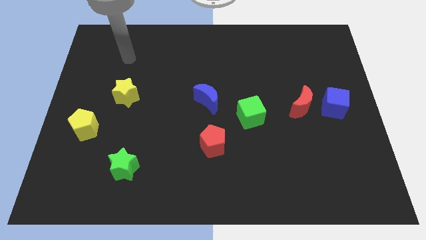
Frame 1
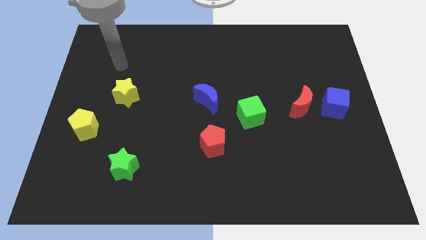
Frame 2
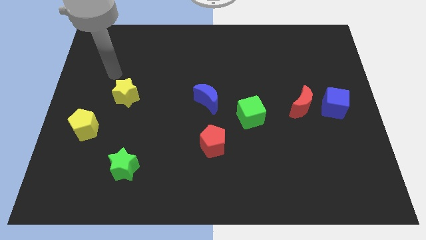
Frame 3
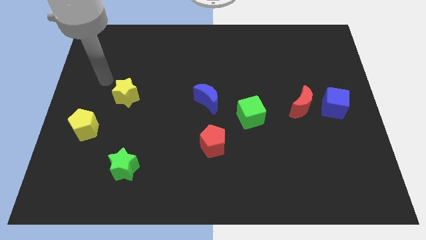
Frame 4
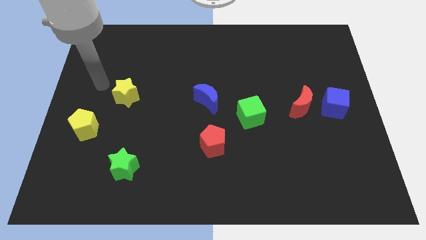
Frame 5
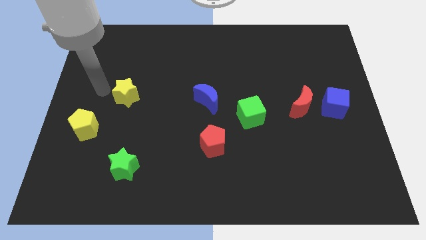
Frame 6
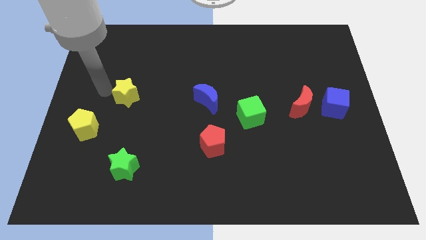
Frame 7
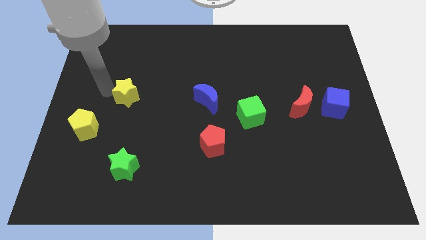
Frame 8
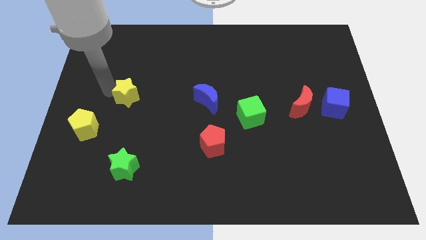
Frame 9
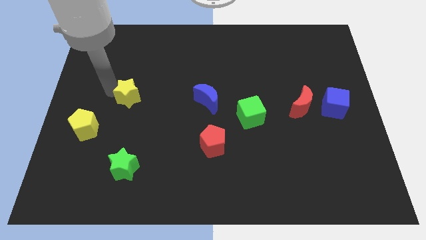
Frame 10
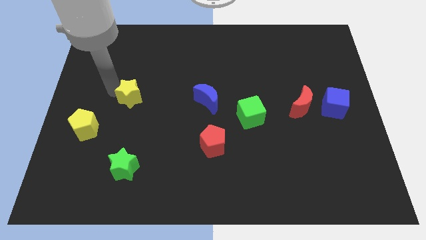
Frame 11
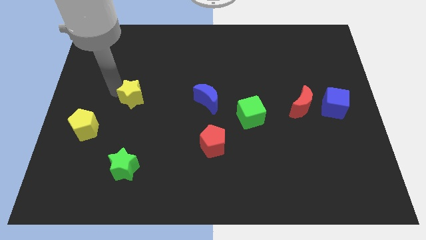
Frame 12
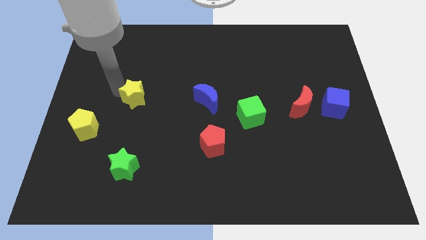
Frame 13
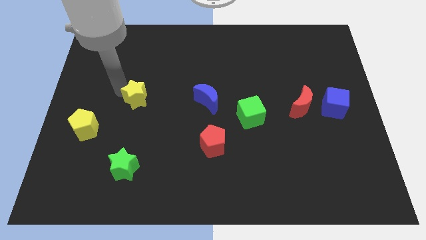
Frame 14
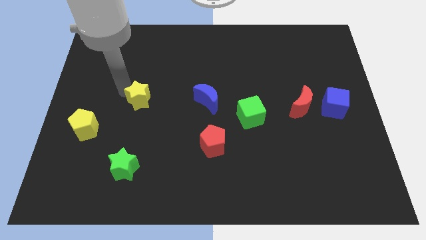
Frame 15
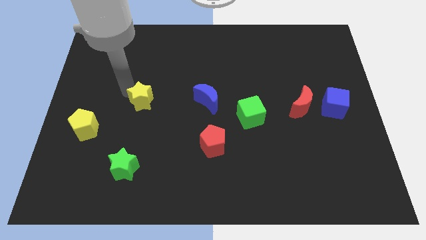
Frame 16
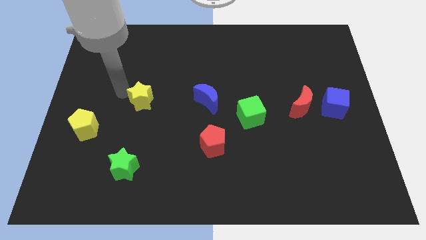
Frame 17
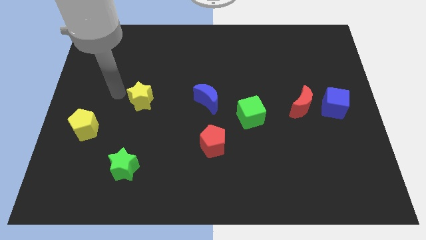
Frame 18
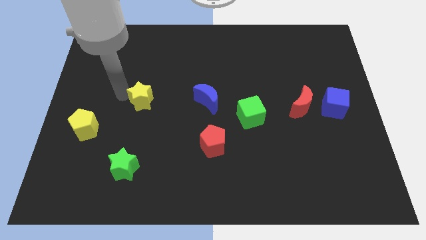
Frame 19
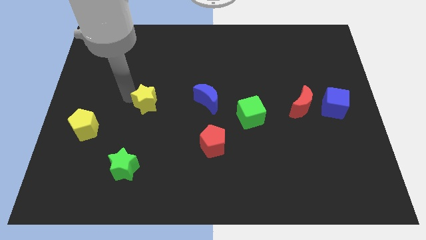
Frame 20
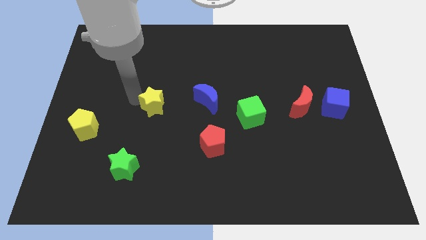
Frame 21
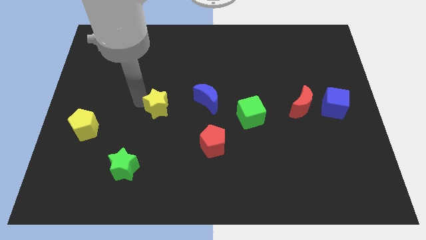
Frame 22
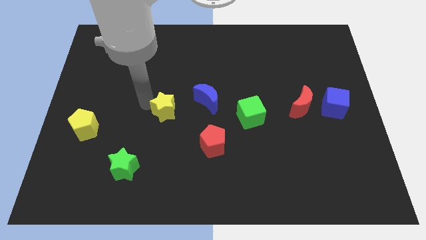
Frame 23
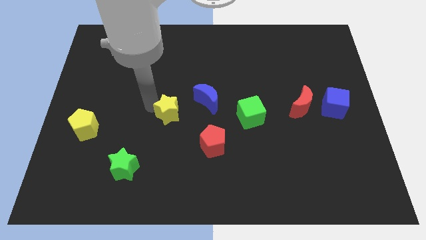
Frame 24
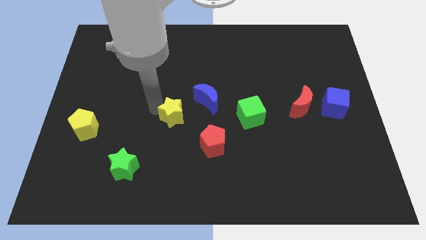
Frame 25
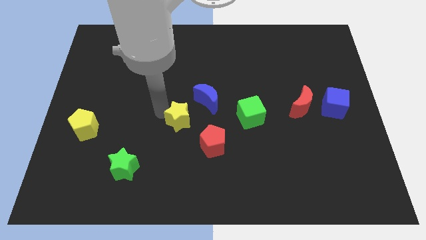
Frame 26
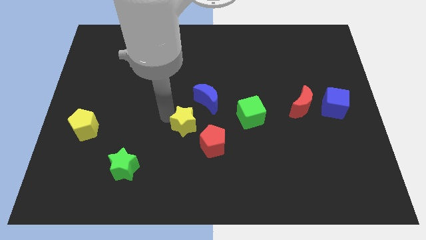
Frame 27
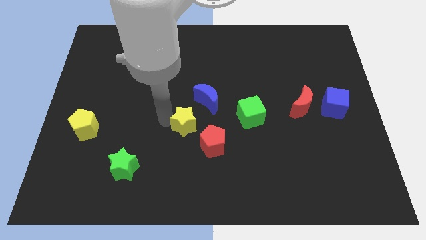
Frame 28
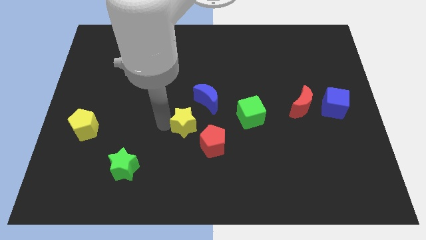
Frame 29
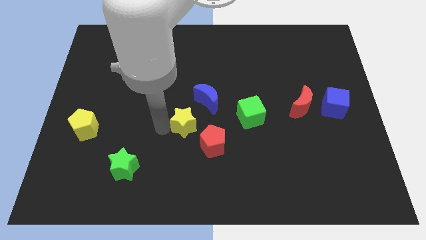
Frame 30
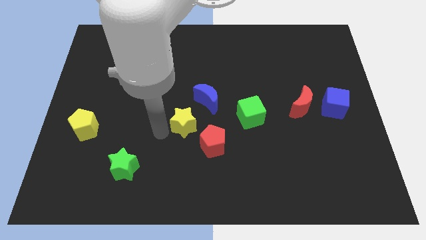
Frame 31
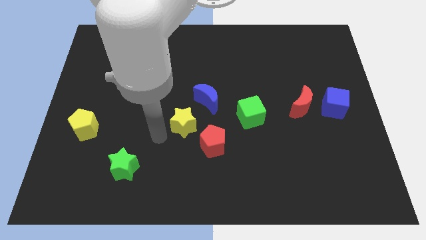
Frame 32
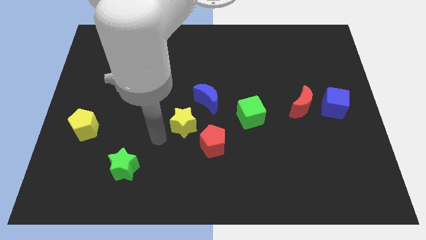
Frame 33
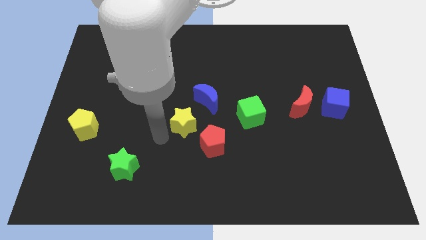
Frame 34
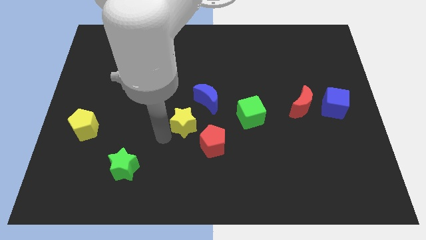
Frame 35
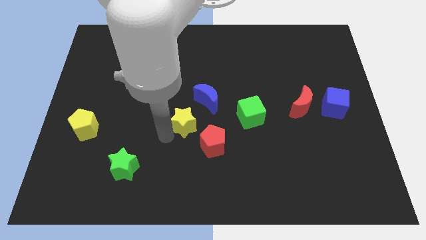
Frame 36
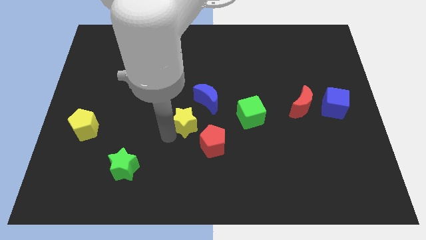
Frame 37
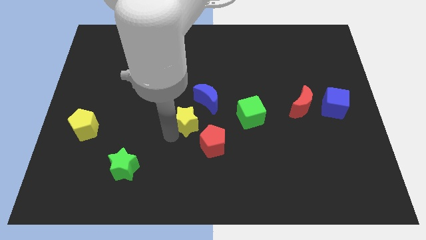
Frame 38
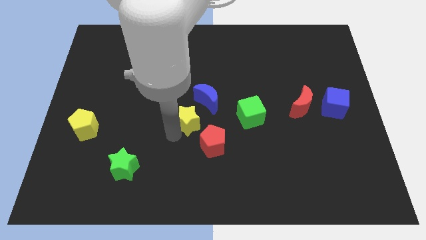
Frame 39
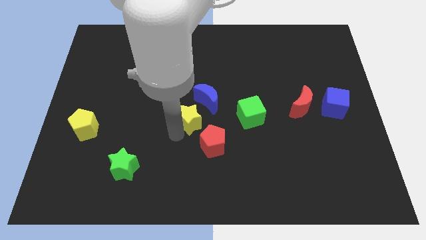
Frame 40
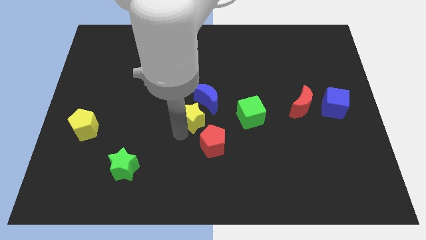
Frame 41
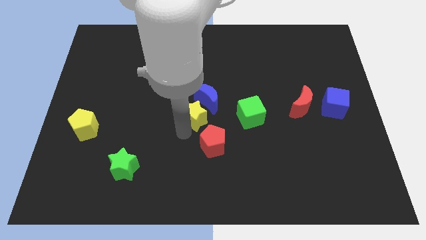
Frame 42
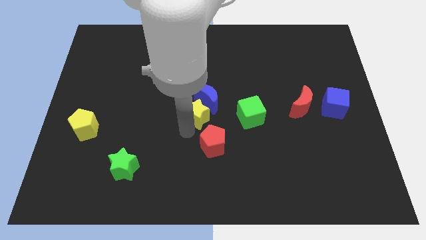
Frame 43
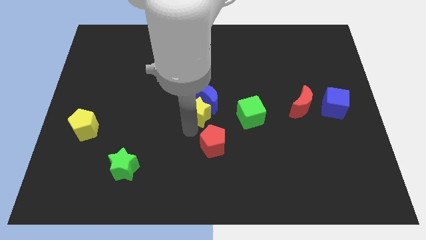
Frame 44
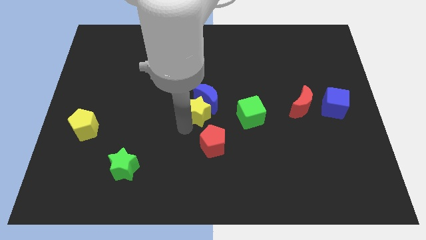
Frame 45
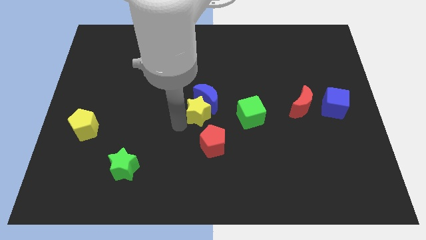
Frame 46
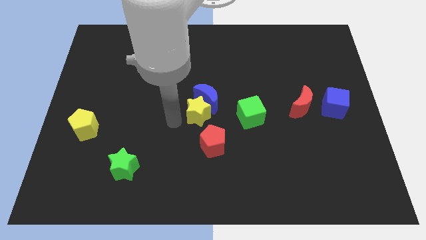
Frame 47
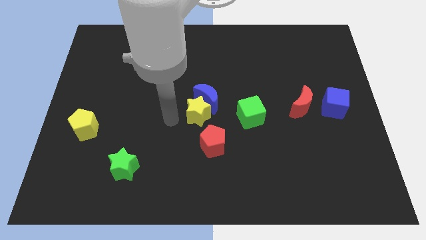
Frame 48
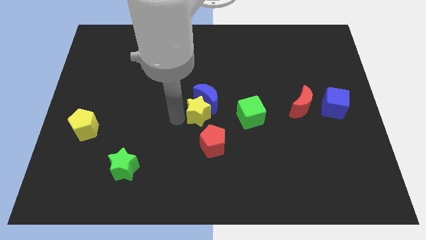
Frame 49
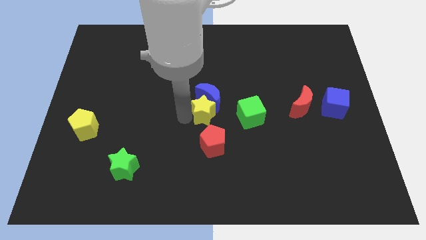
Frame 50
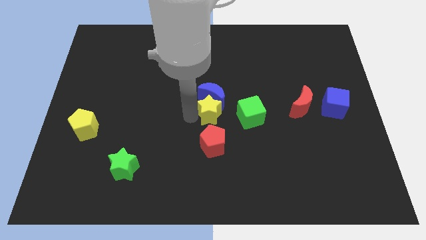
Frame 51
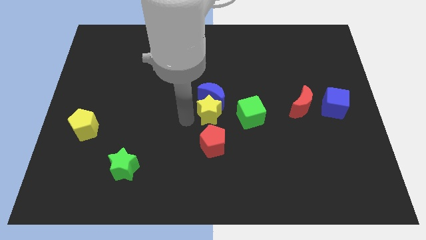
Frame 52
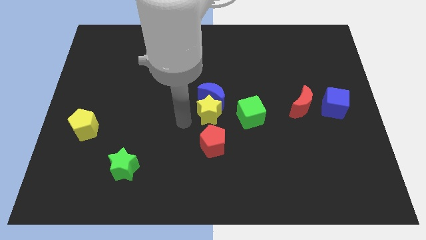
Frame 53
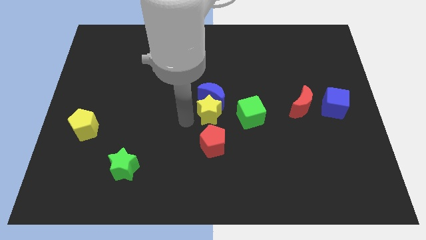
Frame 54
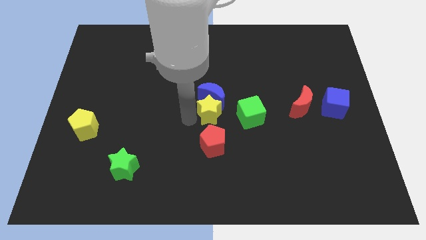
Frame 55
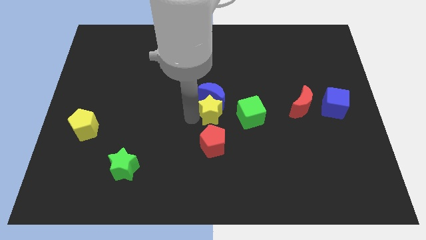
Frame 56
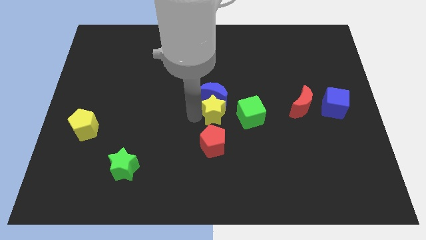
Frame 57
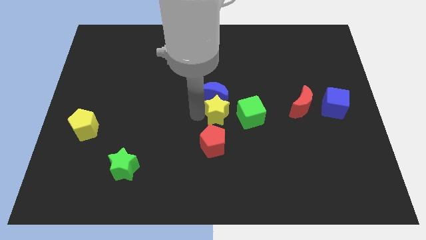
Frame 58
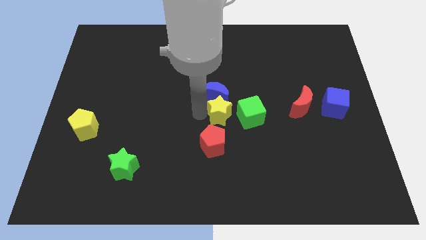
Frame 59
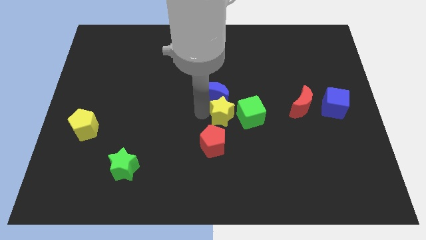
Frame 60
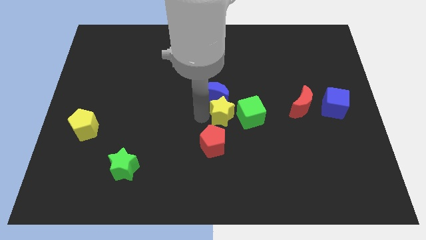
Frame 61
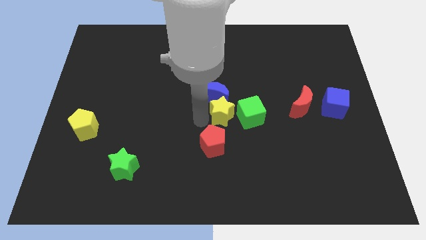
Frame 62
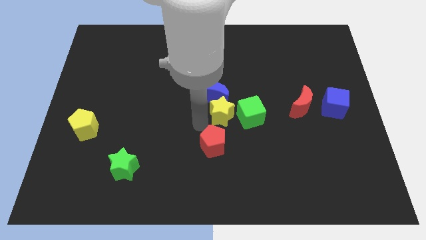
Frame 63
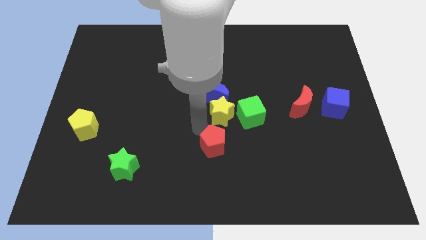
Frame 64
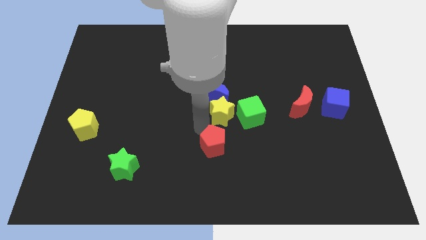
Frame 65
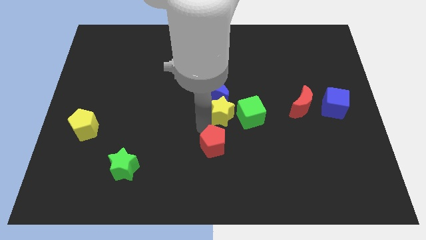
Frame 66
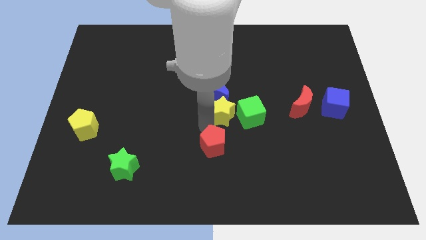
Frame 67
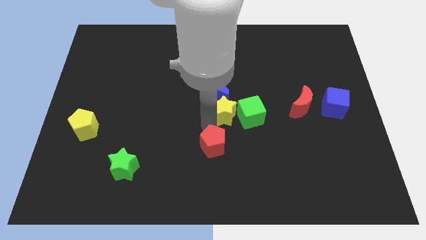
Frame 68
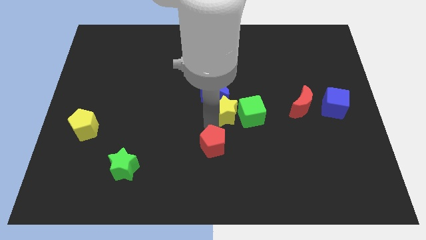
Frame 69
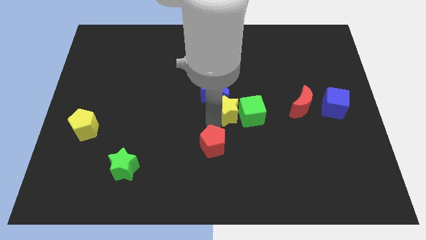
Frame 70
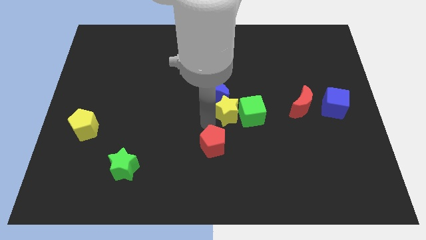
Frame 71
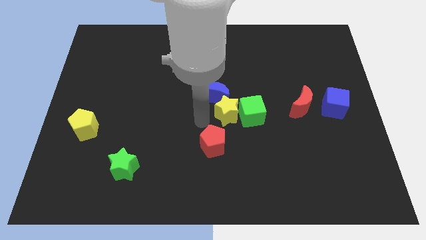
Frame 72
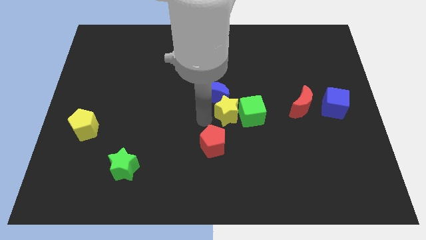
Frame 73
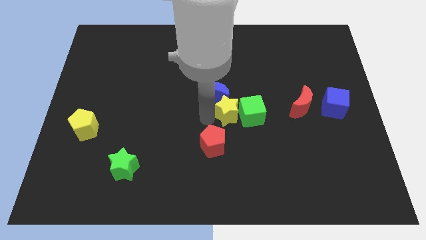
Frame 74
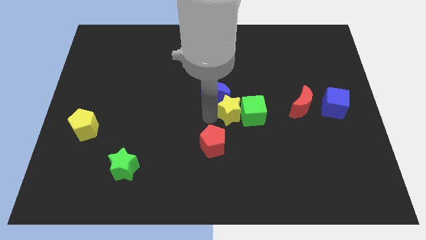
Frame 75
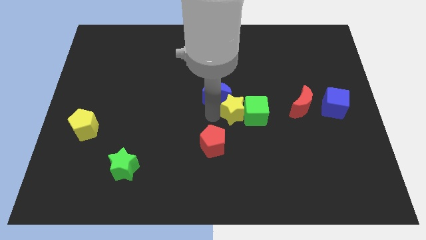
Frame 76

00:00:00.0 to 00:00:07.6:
put the yellow star to the left side of the red moon
